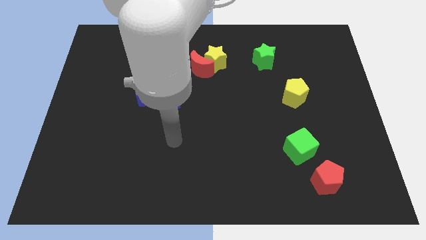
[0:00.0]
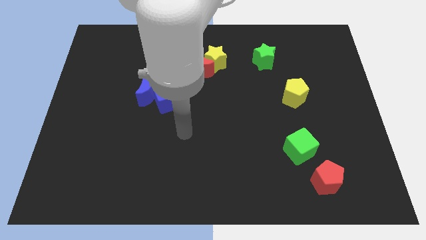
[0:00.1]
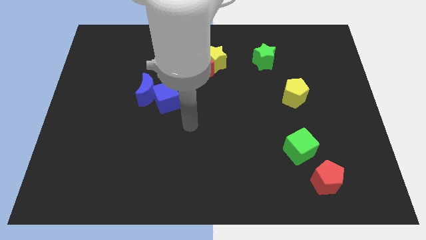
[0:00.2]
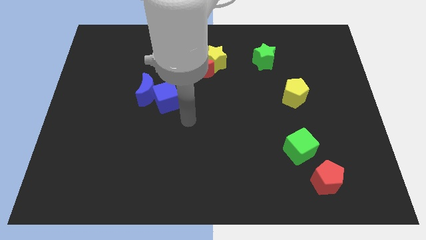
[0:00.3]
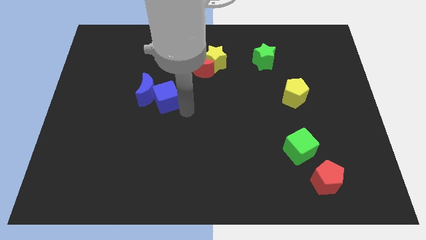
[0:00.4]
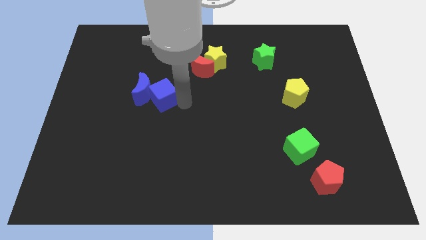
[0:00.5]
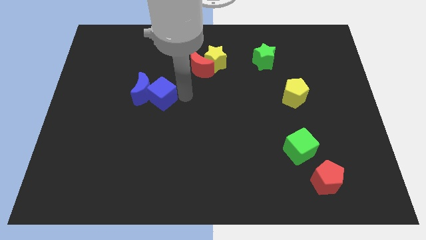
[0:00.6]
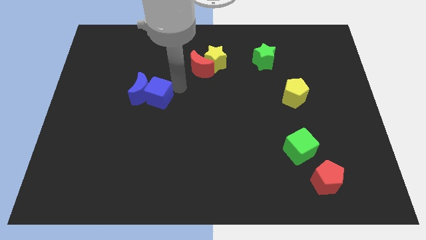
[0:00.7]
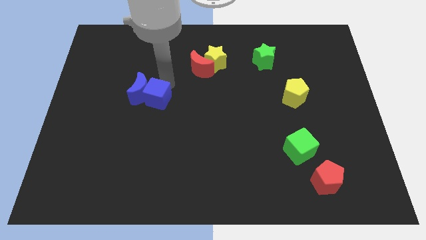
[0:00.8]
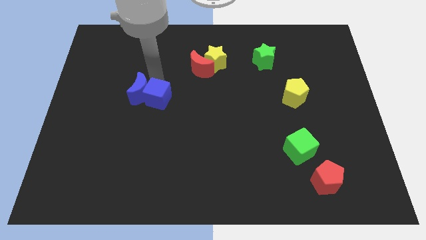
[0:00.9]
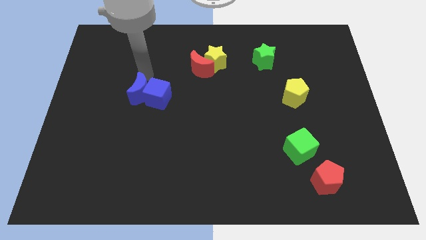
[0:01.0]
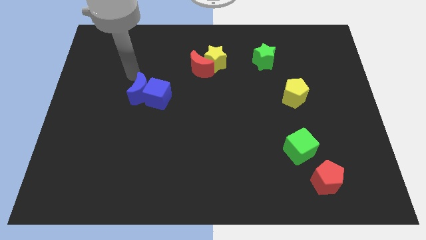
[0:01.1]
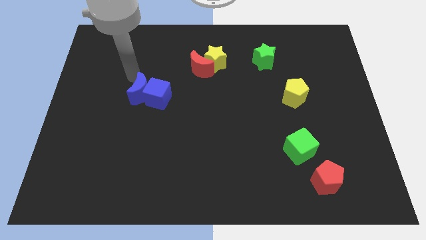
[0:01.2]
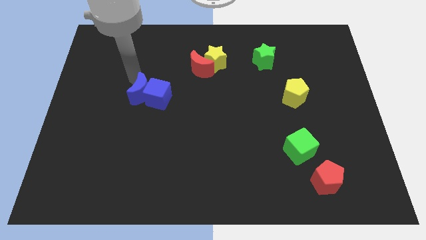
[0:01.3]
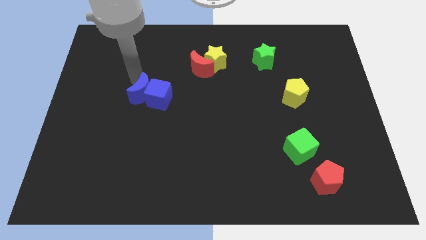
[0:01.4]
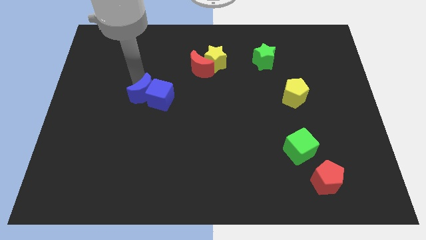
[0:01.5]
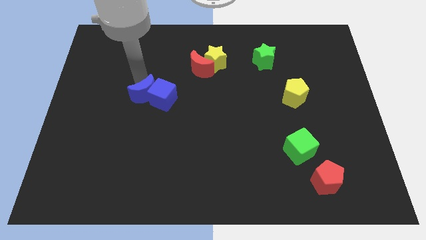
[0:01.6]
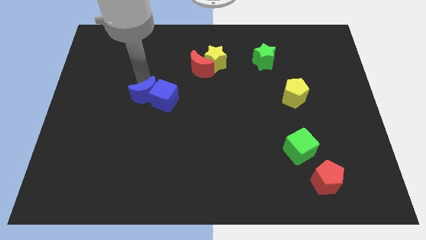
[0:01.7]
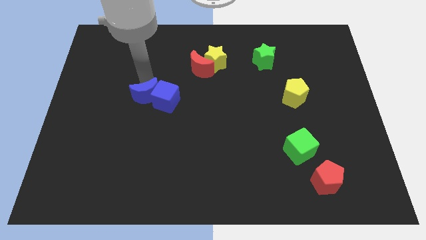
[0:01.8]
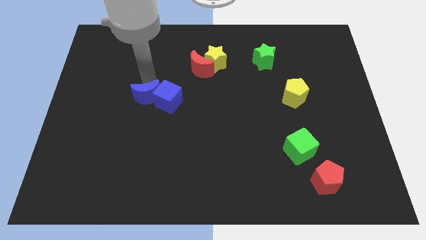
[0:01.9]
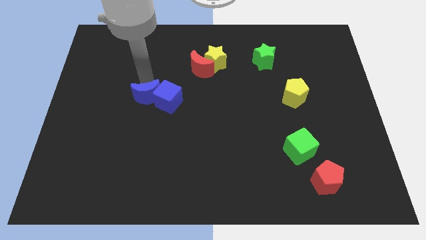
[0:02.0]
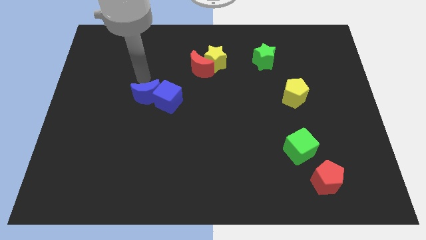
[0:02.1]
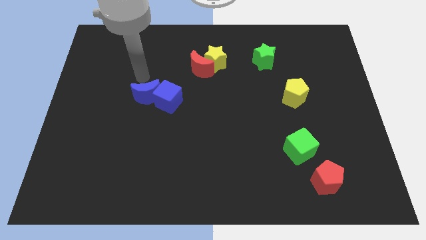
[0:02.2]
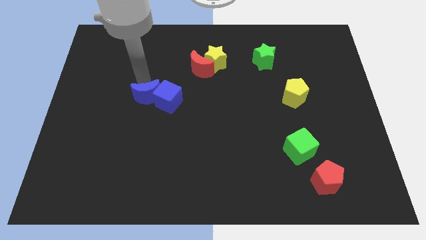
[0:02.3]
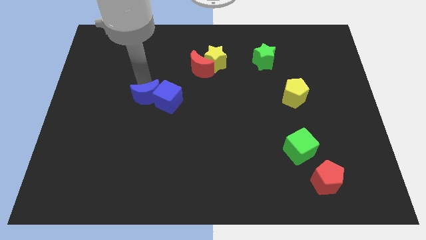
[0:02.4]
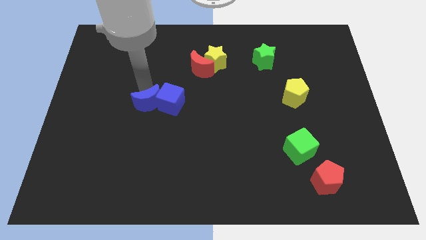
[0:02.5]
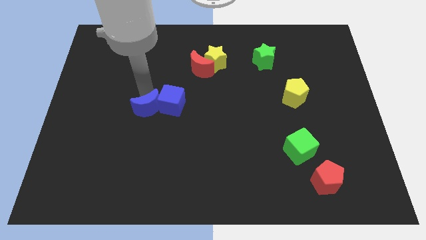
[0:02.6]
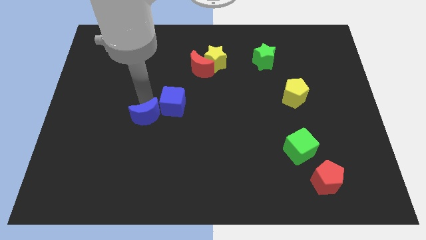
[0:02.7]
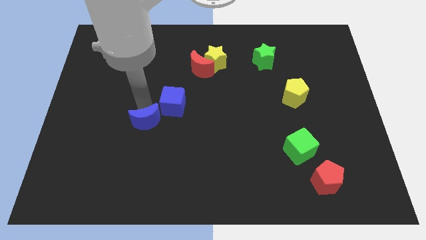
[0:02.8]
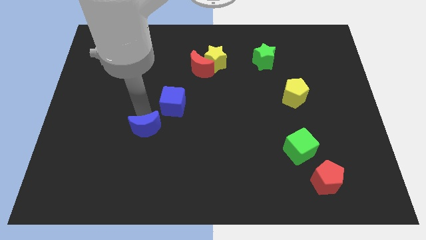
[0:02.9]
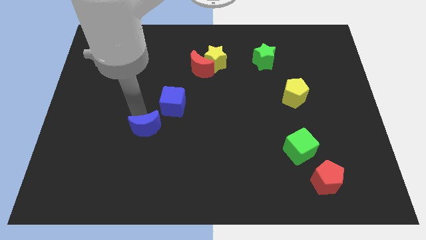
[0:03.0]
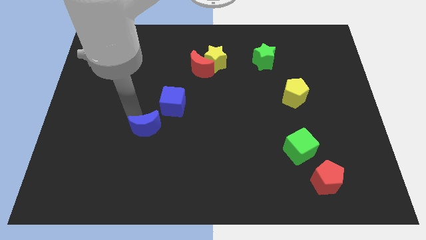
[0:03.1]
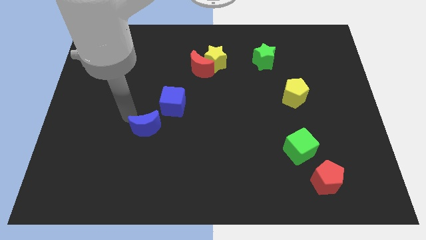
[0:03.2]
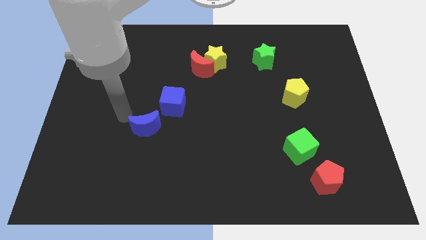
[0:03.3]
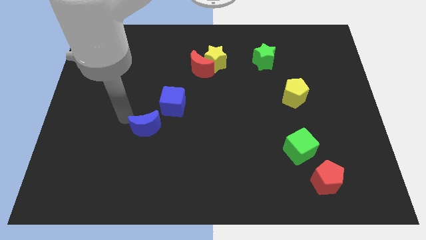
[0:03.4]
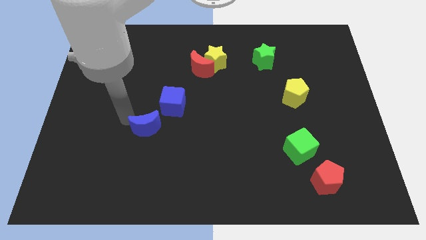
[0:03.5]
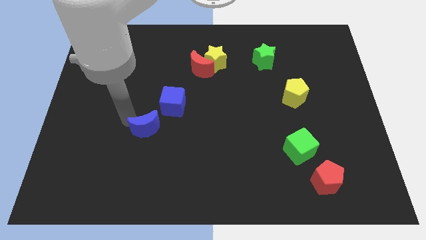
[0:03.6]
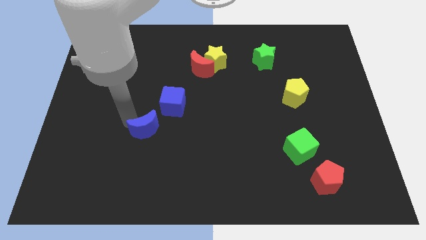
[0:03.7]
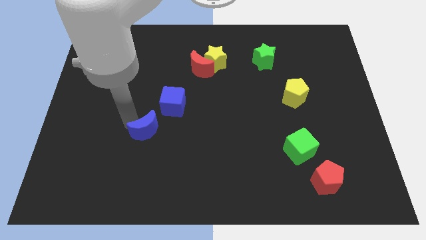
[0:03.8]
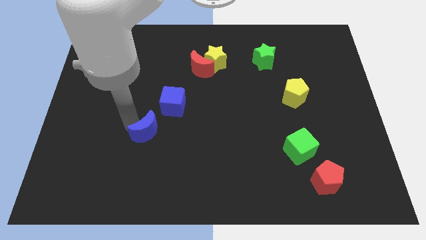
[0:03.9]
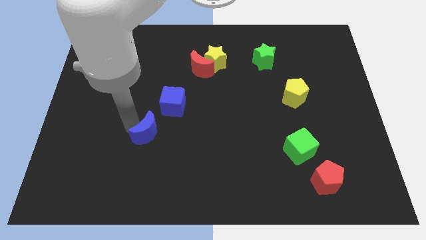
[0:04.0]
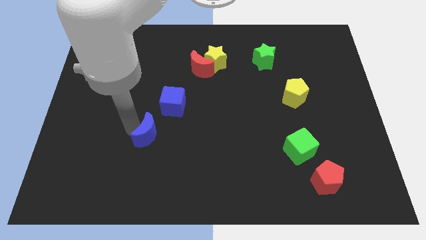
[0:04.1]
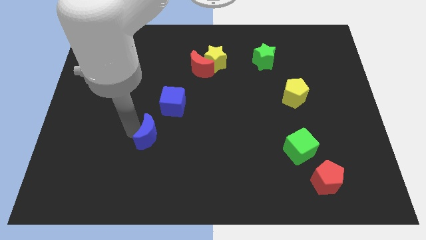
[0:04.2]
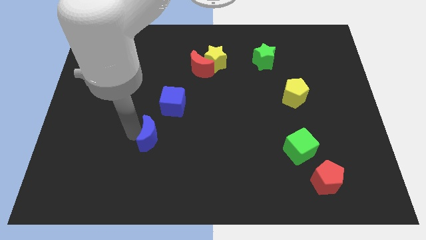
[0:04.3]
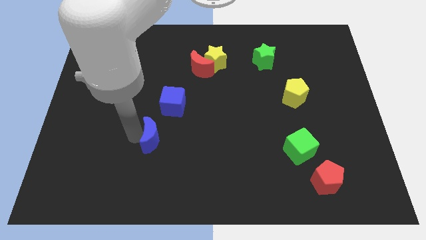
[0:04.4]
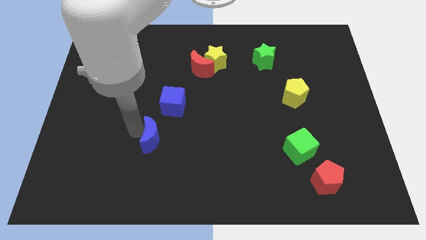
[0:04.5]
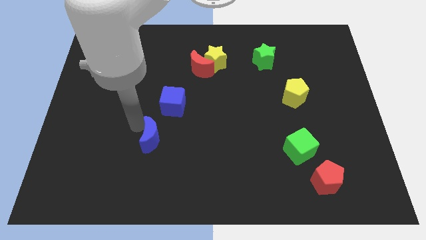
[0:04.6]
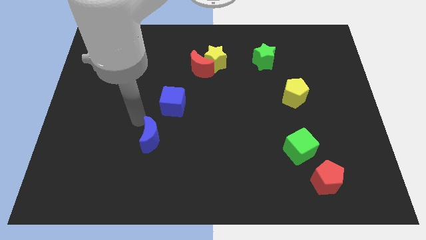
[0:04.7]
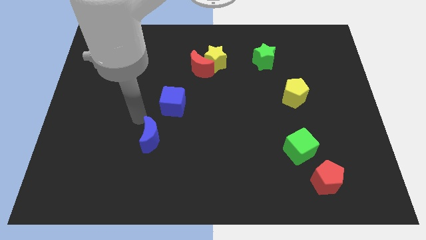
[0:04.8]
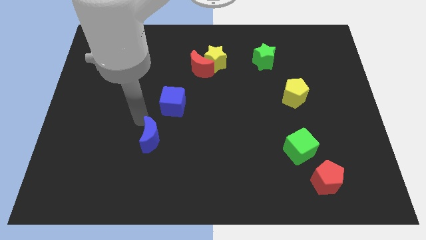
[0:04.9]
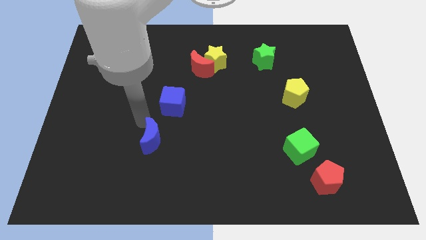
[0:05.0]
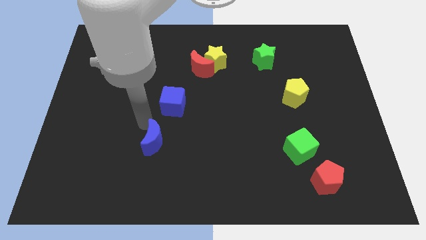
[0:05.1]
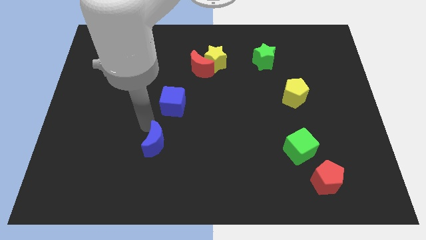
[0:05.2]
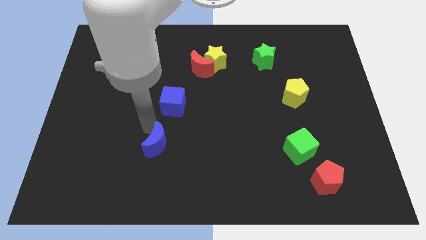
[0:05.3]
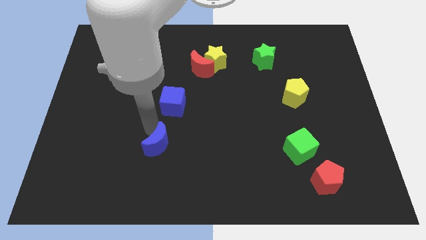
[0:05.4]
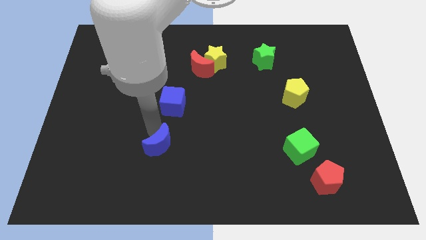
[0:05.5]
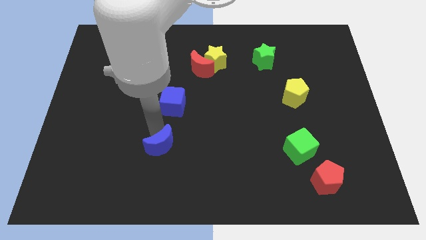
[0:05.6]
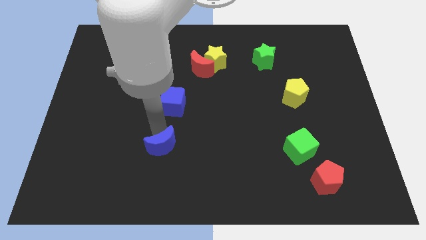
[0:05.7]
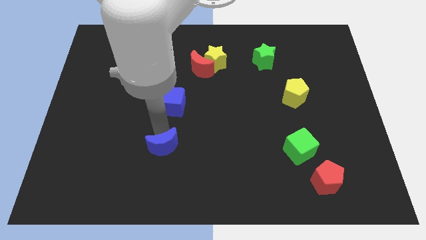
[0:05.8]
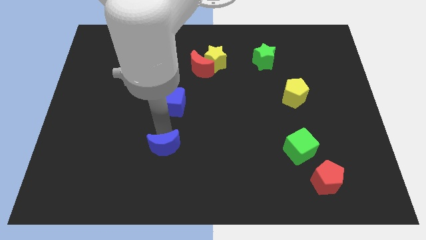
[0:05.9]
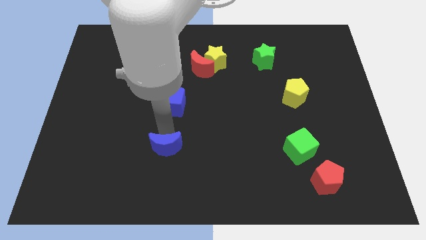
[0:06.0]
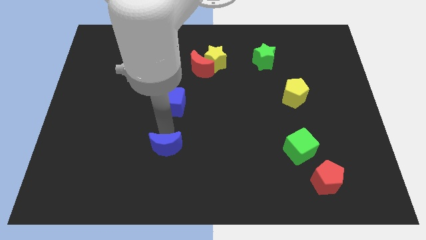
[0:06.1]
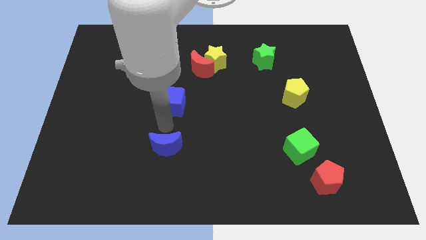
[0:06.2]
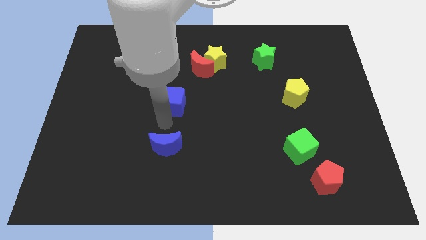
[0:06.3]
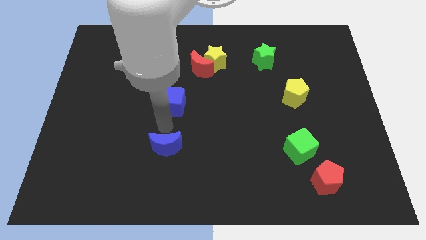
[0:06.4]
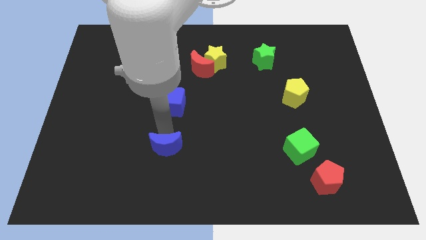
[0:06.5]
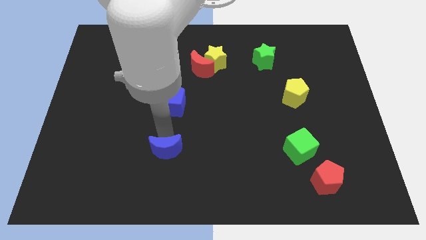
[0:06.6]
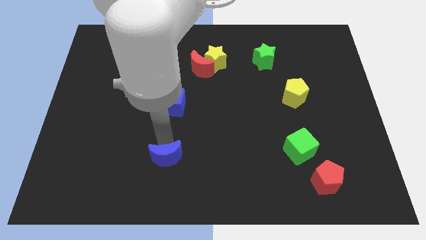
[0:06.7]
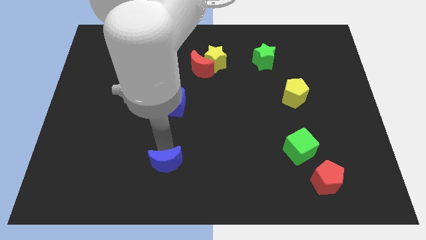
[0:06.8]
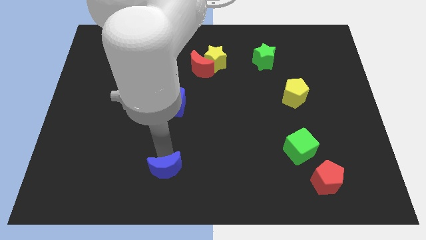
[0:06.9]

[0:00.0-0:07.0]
put the blue moon to the bottom side
